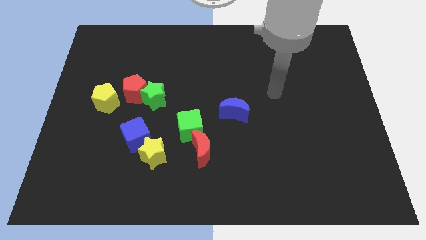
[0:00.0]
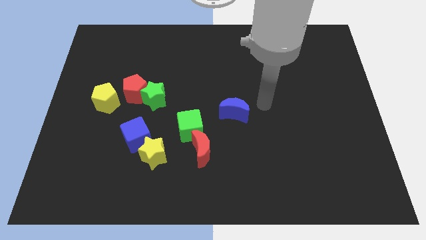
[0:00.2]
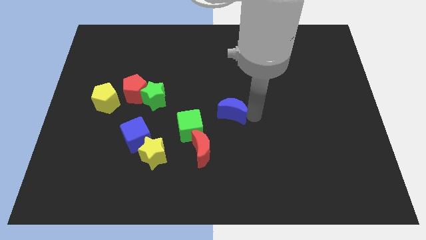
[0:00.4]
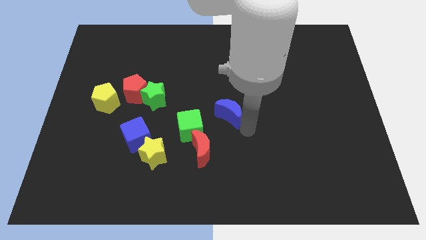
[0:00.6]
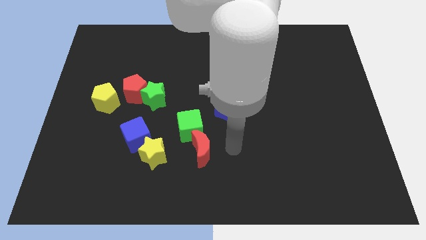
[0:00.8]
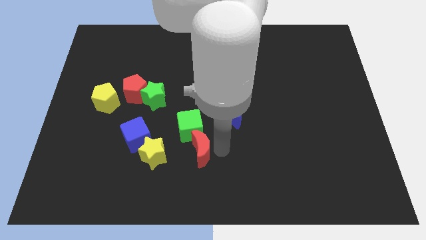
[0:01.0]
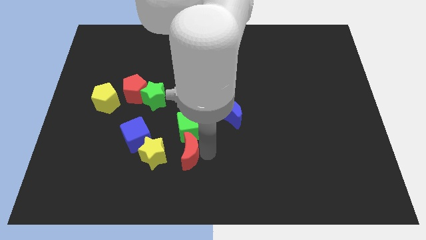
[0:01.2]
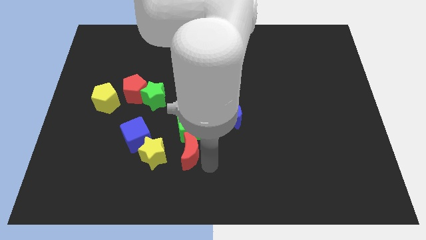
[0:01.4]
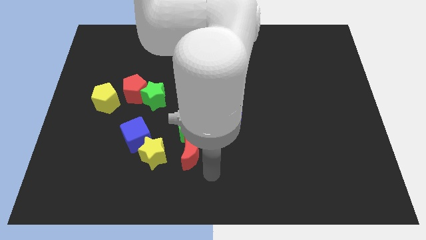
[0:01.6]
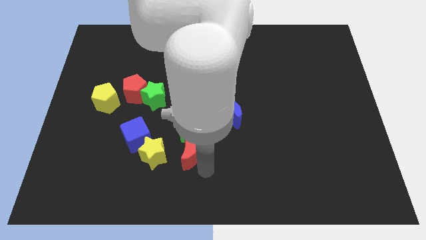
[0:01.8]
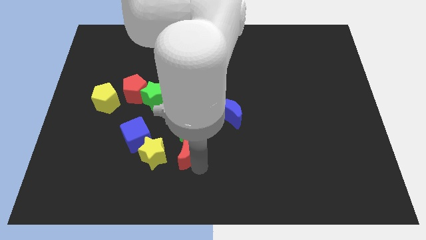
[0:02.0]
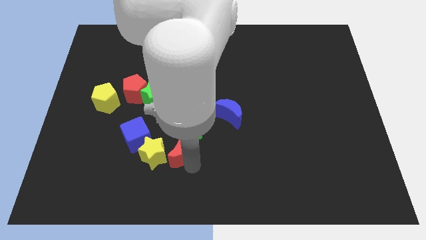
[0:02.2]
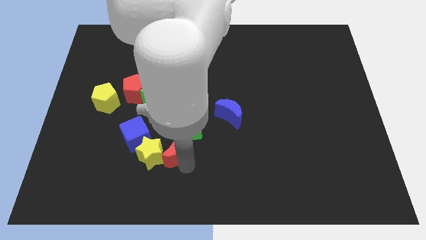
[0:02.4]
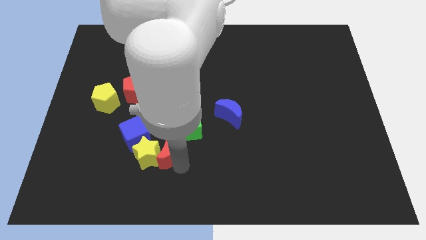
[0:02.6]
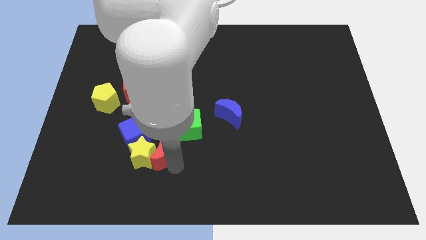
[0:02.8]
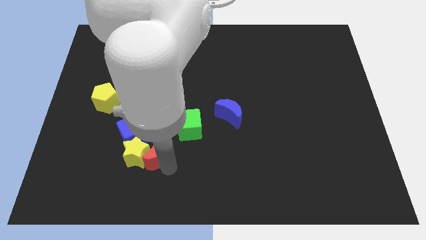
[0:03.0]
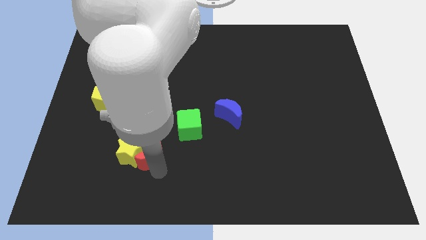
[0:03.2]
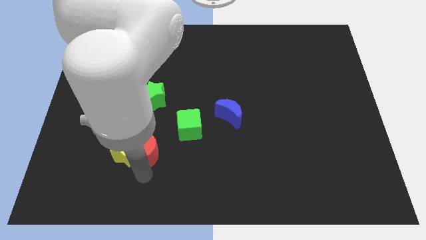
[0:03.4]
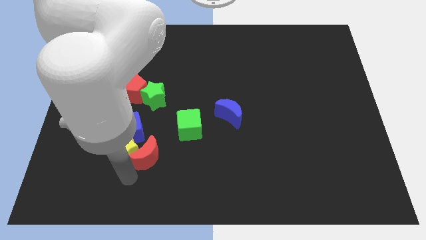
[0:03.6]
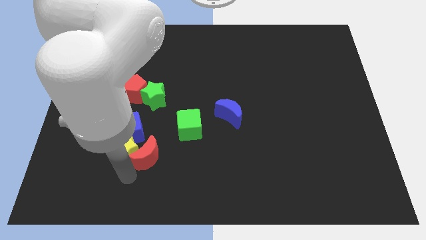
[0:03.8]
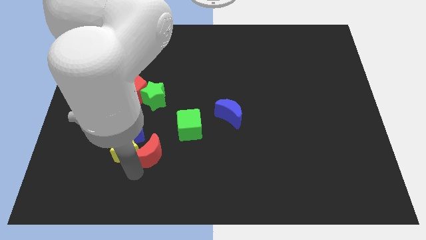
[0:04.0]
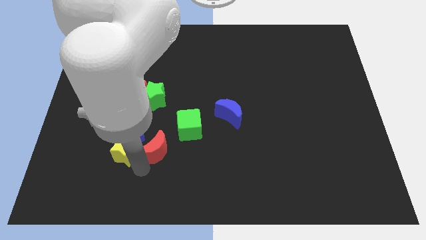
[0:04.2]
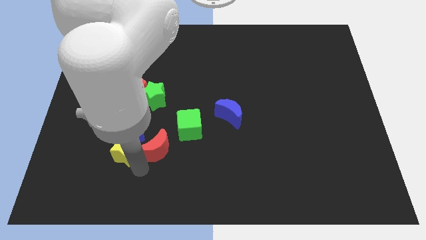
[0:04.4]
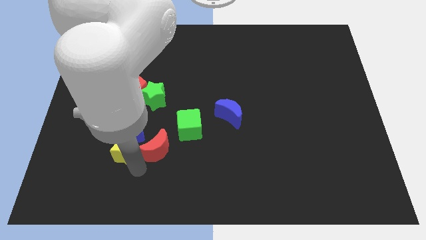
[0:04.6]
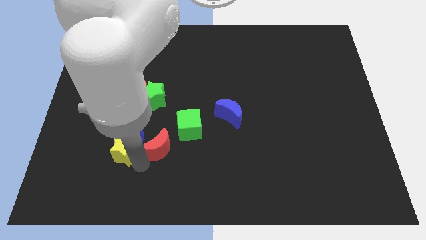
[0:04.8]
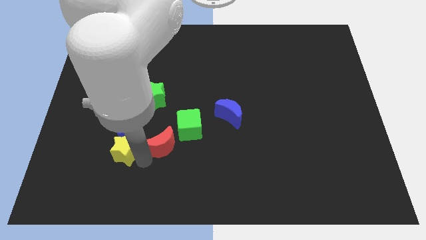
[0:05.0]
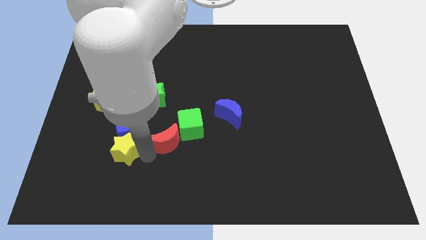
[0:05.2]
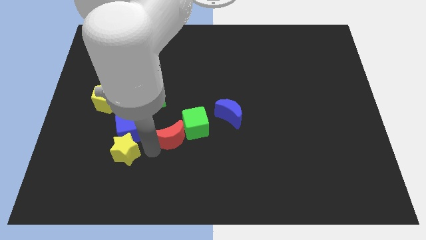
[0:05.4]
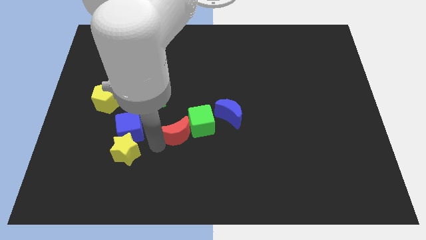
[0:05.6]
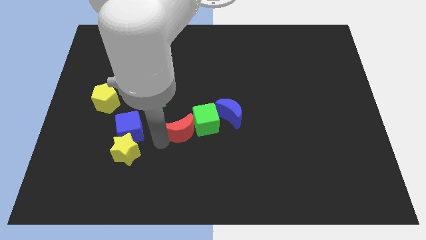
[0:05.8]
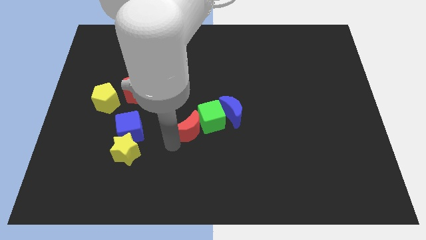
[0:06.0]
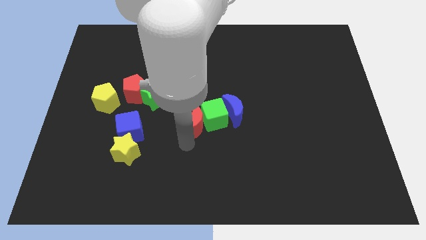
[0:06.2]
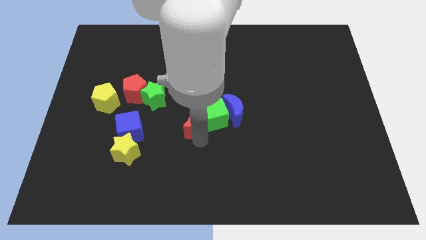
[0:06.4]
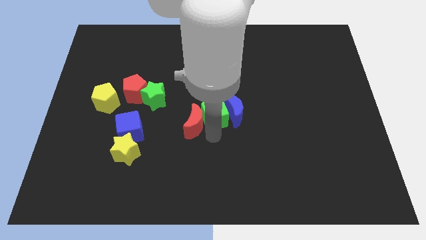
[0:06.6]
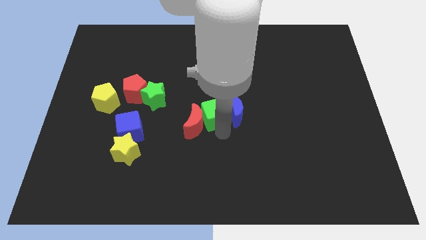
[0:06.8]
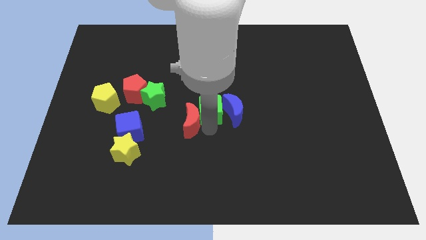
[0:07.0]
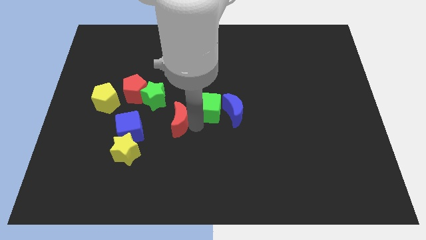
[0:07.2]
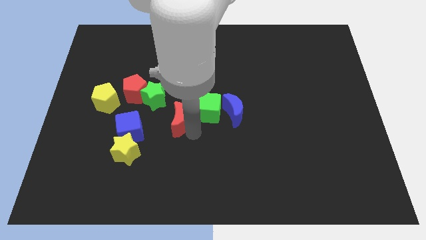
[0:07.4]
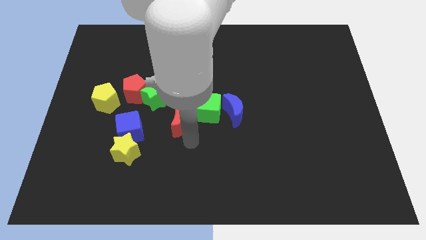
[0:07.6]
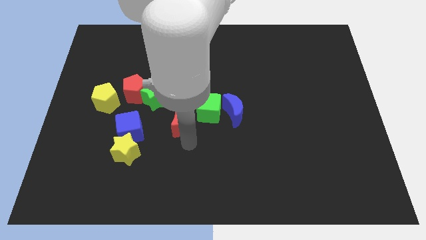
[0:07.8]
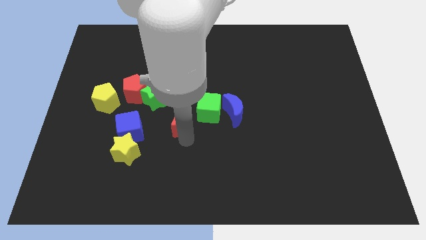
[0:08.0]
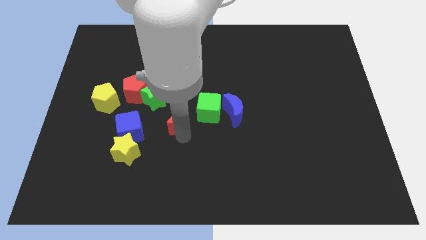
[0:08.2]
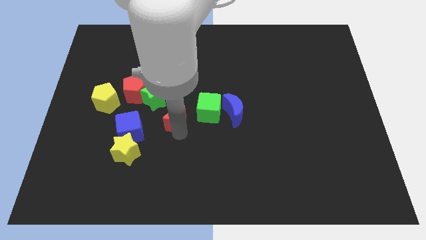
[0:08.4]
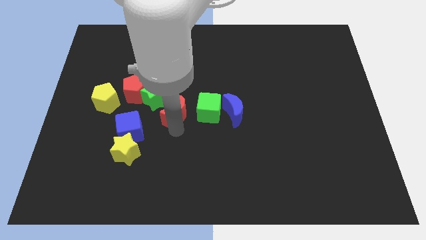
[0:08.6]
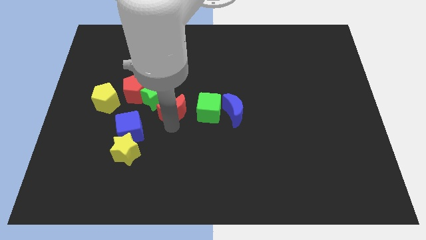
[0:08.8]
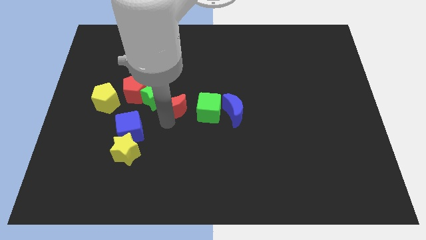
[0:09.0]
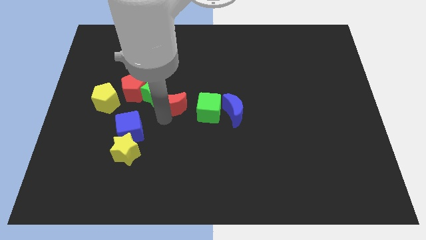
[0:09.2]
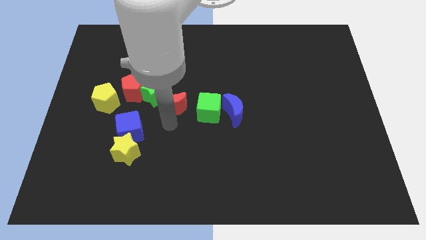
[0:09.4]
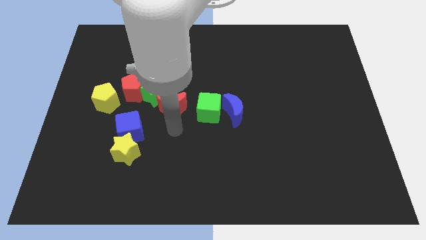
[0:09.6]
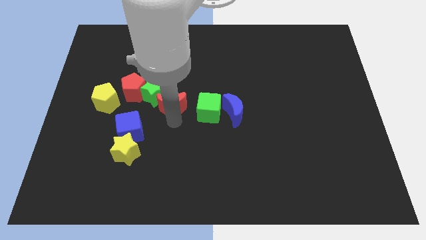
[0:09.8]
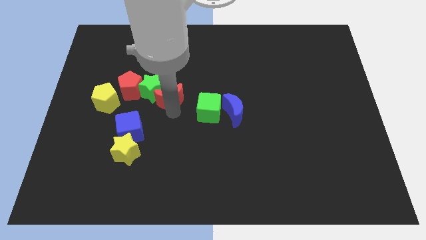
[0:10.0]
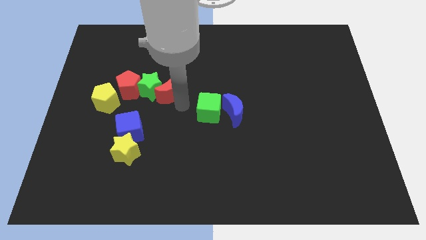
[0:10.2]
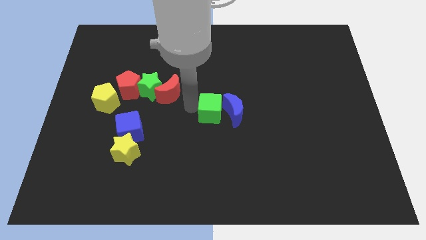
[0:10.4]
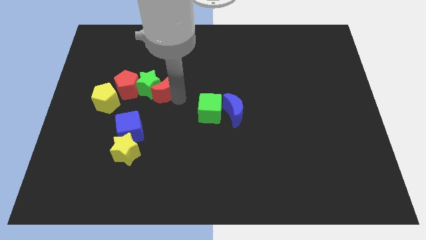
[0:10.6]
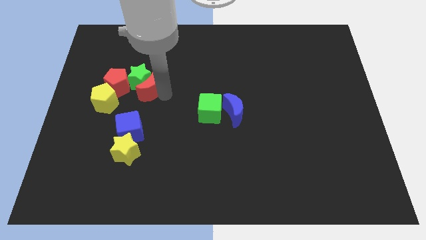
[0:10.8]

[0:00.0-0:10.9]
slide the red moon up and to the left

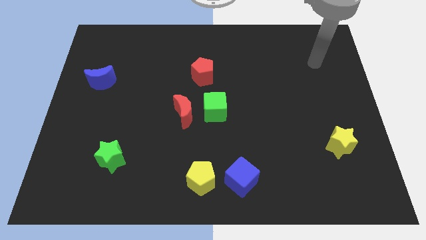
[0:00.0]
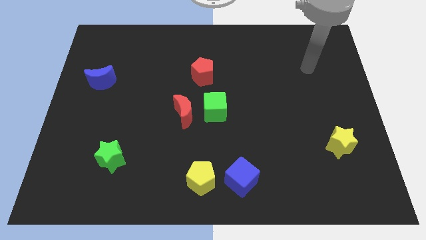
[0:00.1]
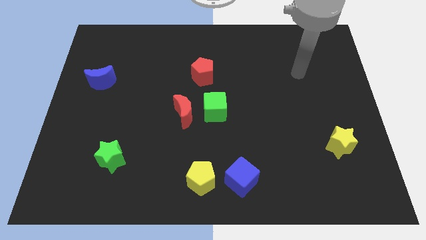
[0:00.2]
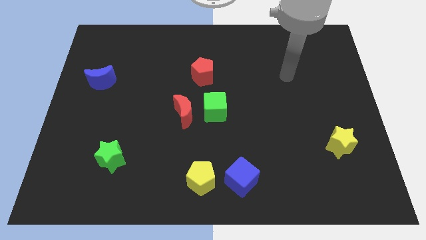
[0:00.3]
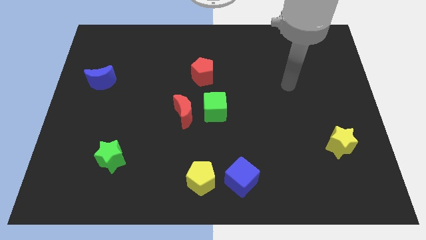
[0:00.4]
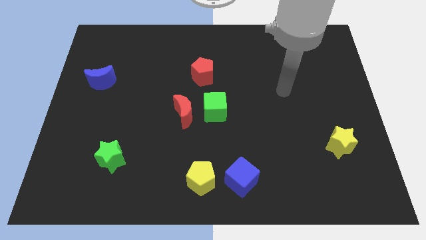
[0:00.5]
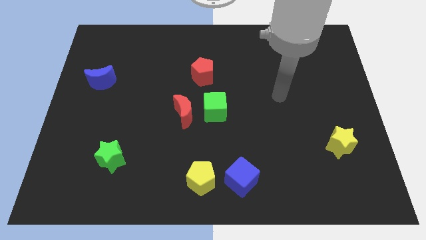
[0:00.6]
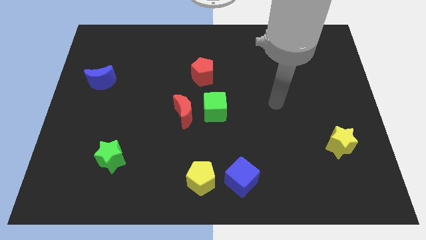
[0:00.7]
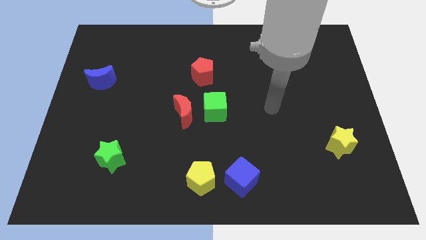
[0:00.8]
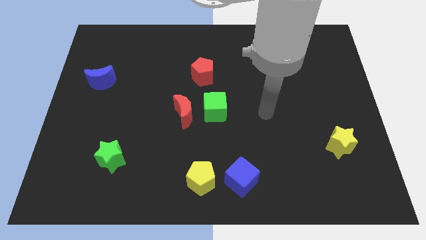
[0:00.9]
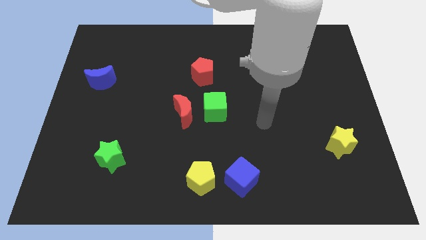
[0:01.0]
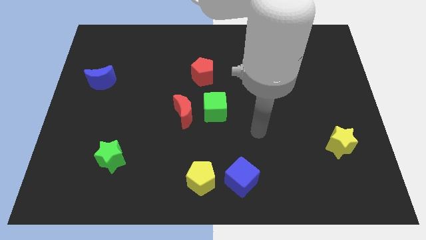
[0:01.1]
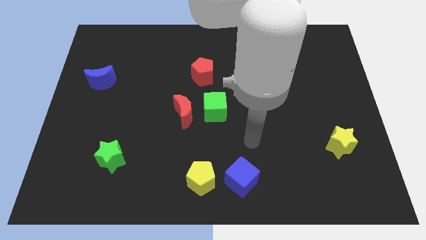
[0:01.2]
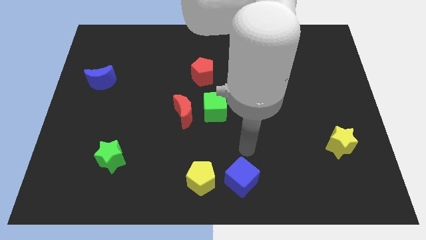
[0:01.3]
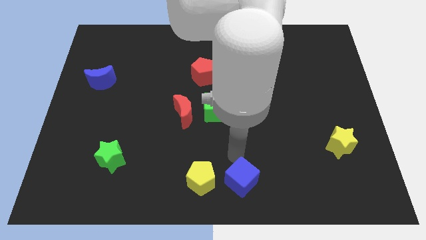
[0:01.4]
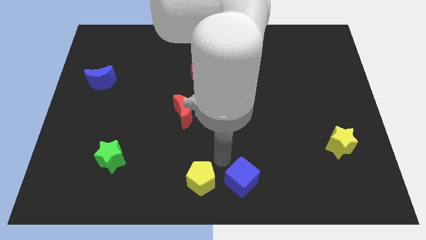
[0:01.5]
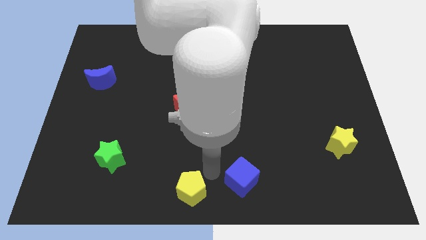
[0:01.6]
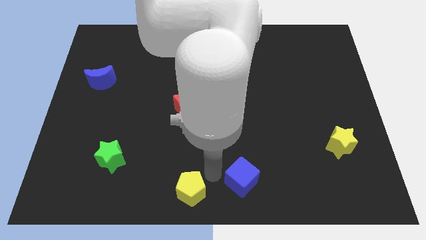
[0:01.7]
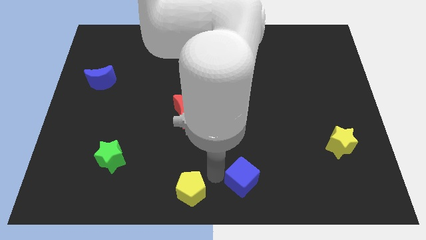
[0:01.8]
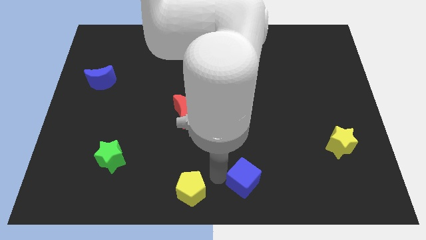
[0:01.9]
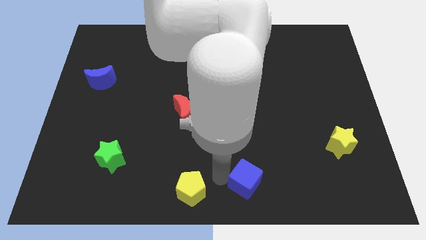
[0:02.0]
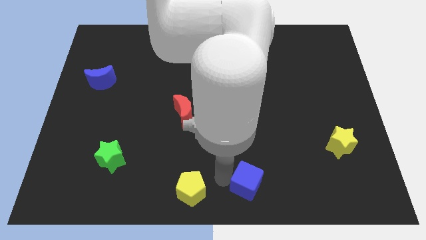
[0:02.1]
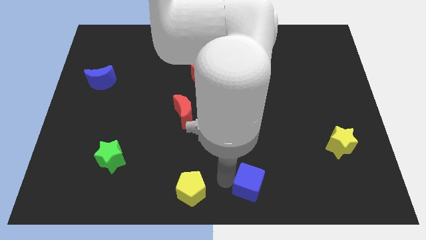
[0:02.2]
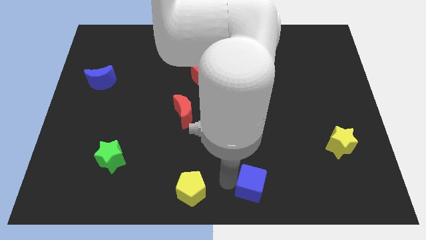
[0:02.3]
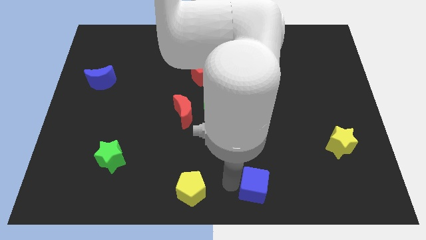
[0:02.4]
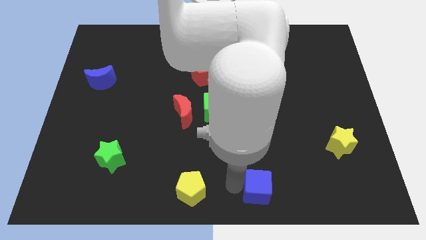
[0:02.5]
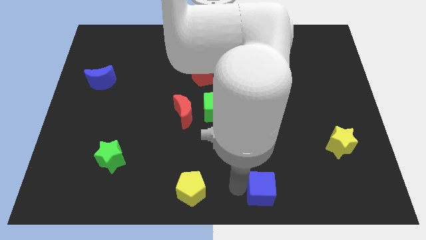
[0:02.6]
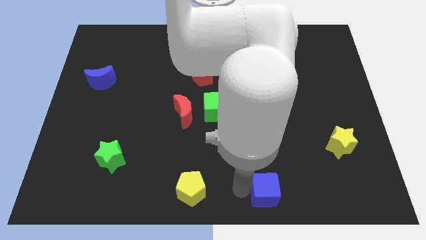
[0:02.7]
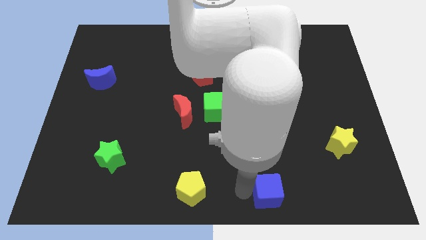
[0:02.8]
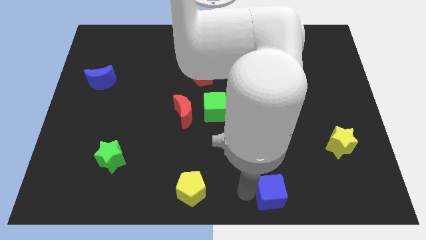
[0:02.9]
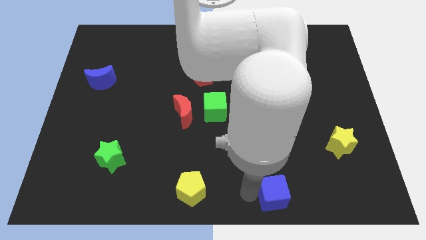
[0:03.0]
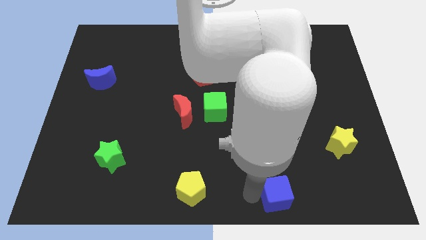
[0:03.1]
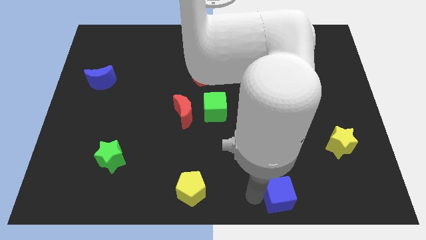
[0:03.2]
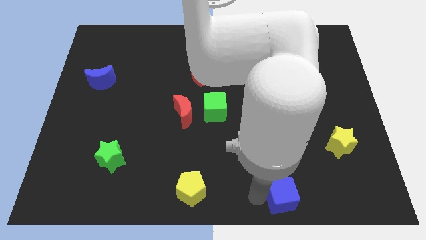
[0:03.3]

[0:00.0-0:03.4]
slide the blue cube right a little
